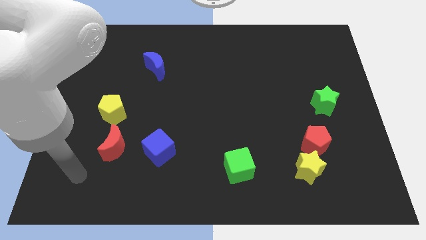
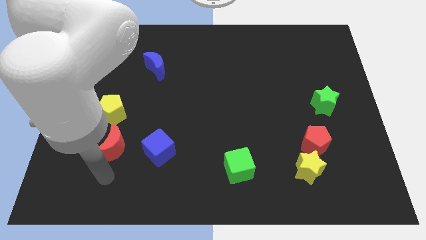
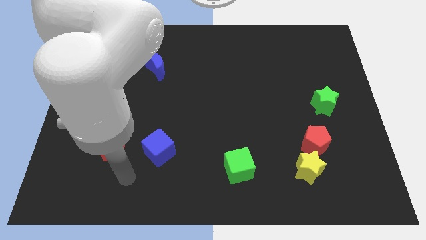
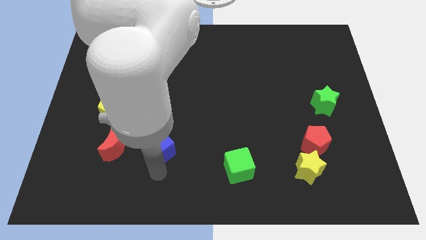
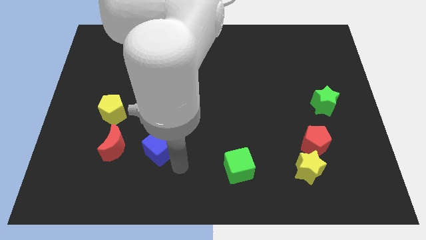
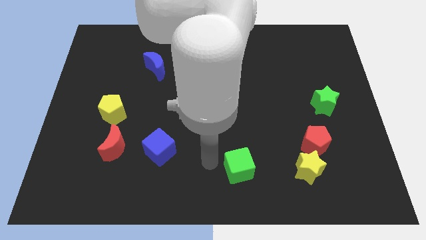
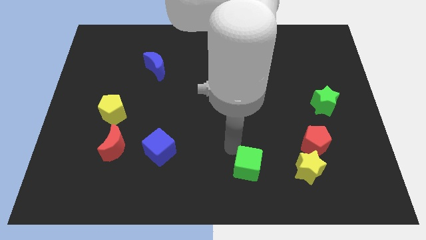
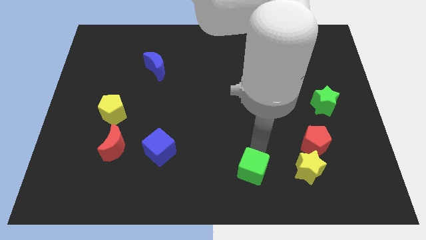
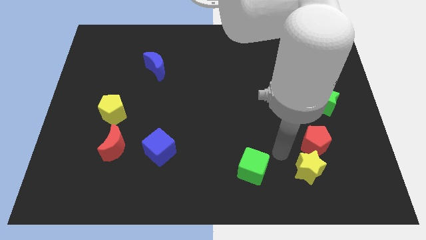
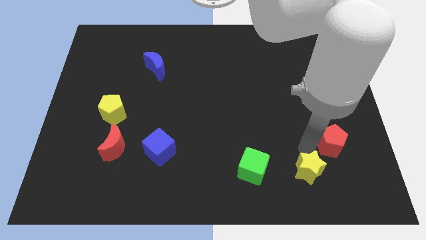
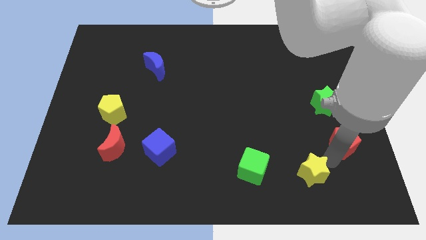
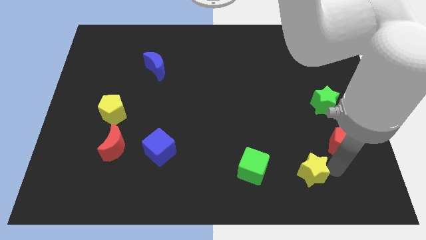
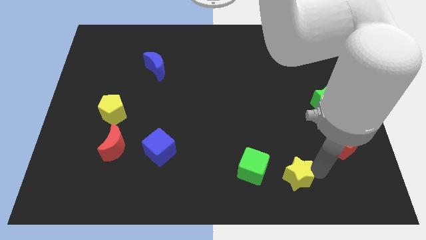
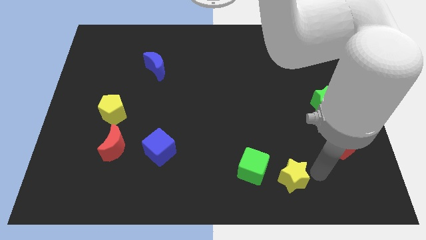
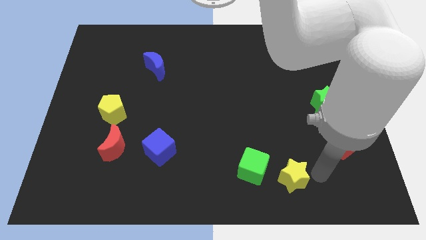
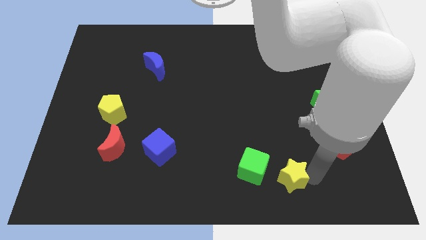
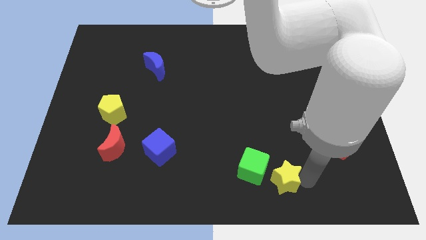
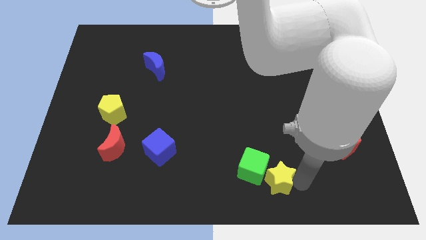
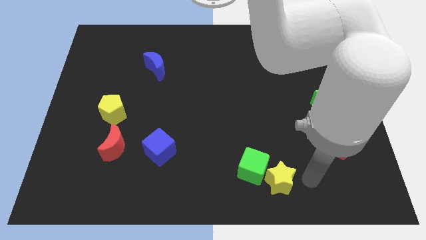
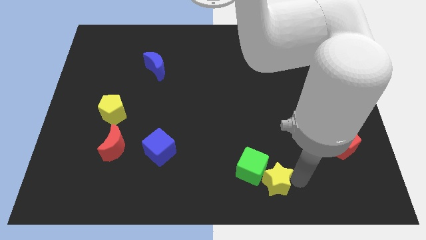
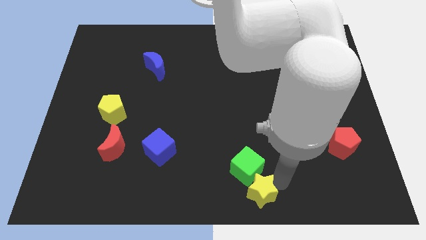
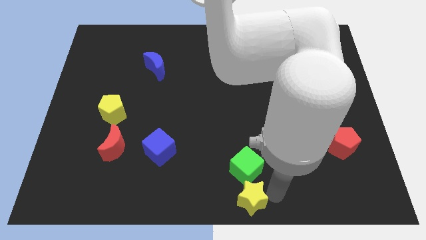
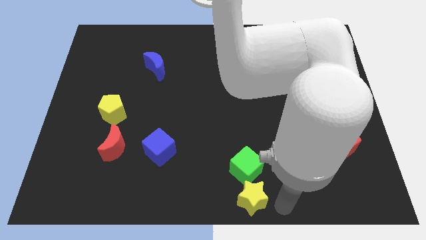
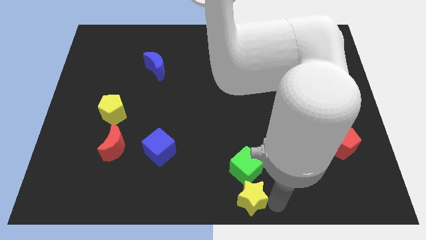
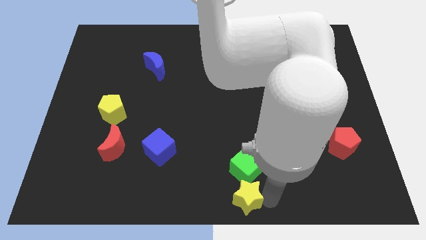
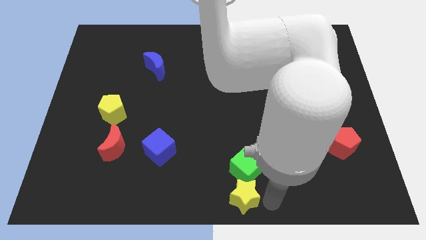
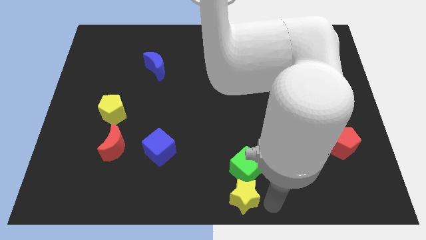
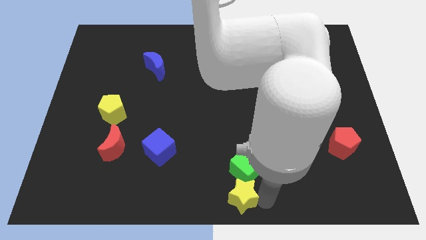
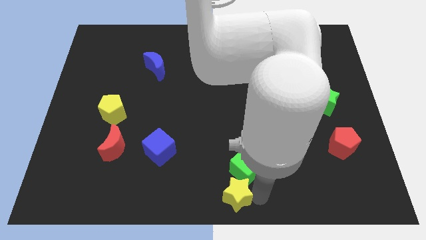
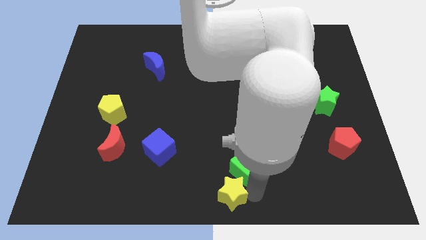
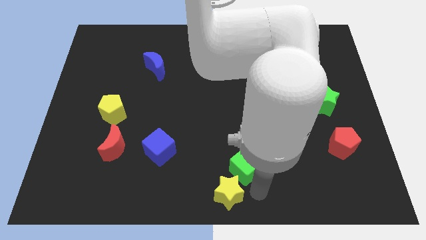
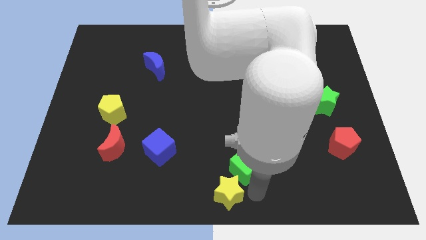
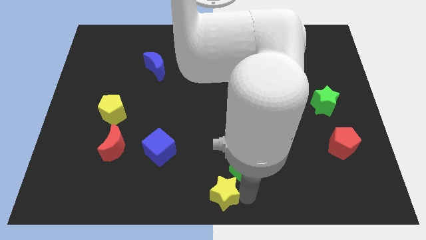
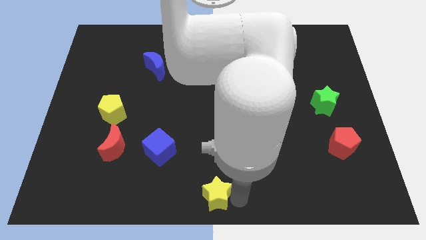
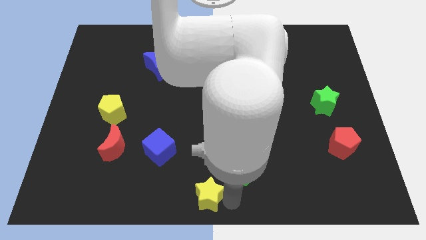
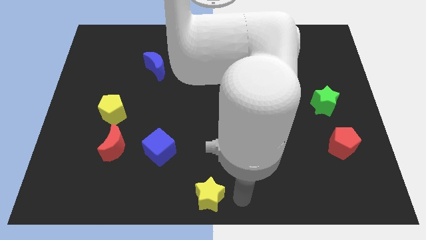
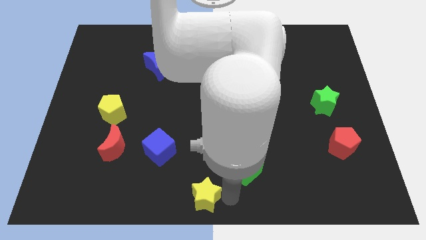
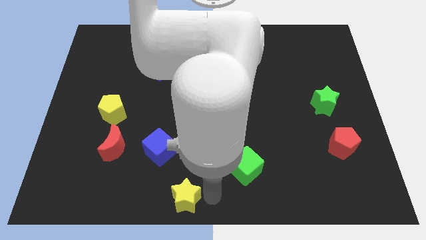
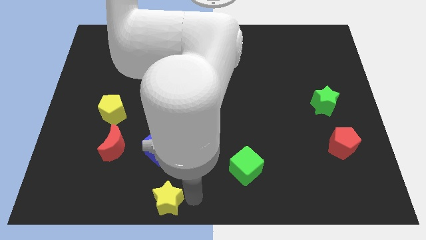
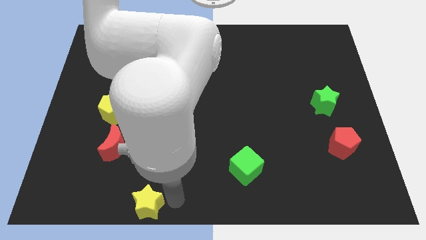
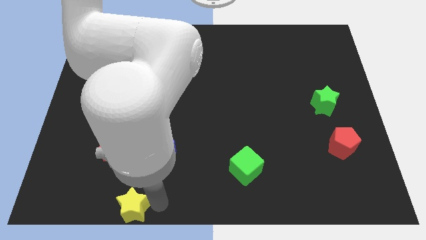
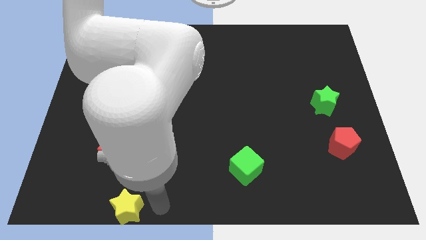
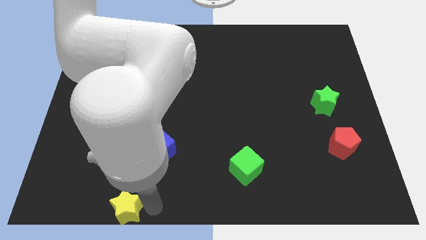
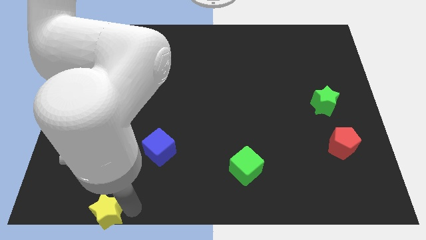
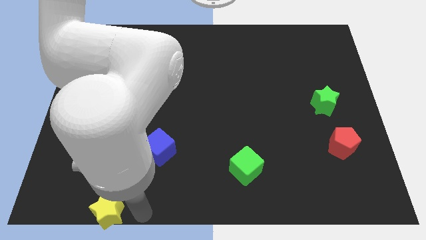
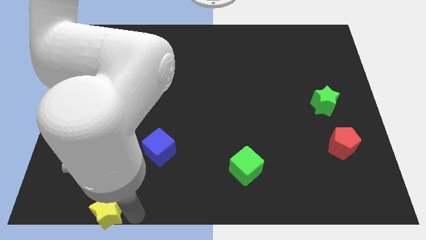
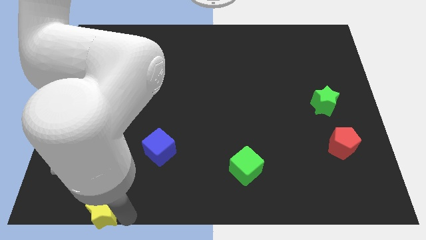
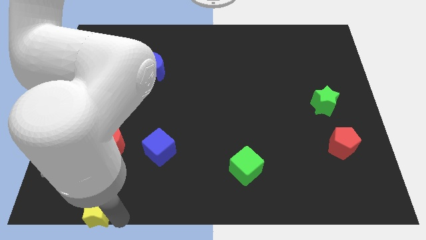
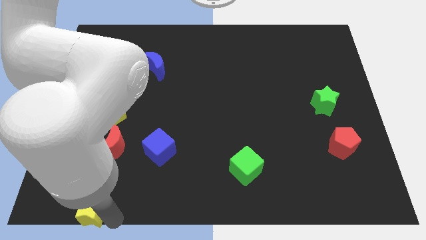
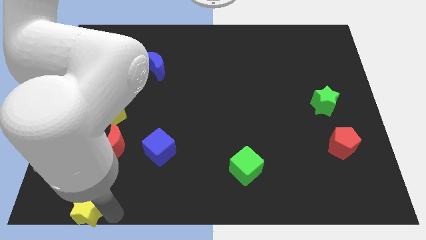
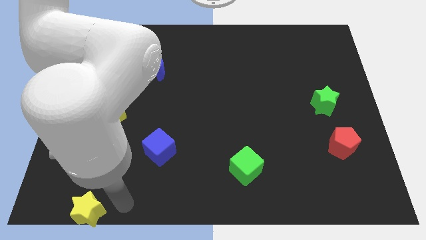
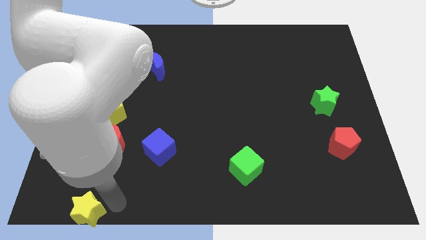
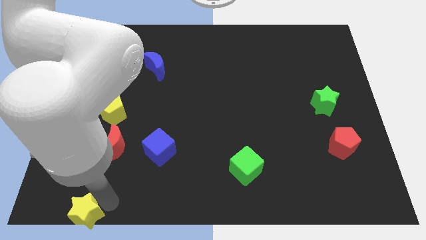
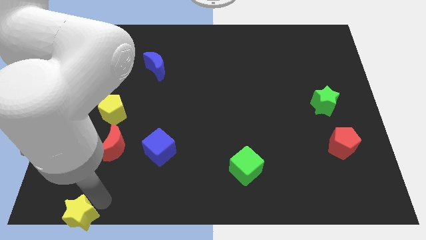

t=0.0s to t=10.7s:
move the yellow star to the bottom left

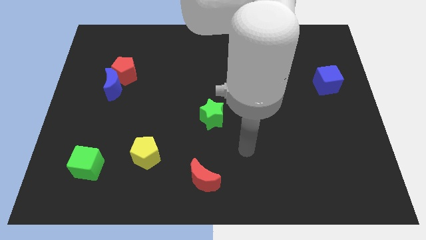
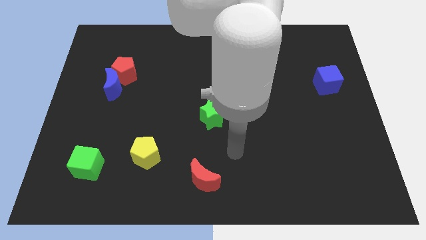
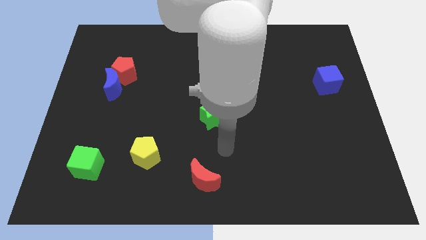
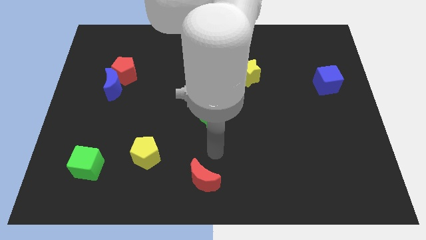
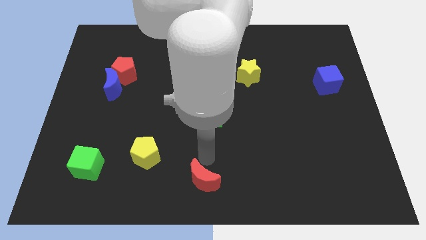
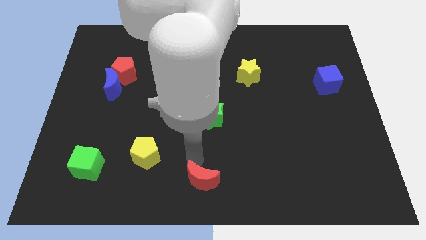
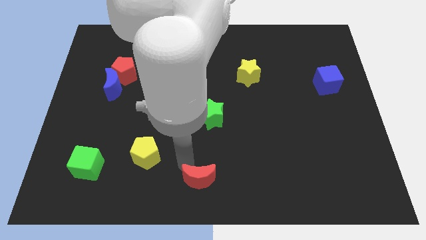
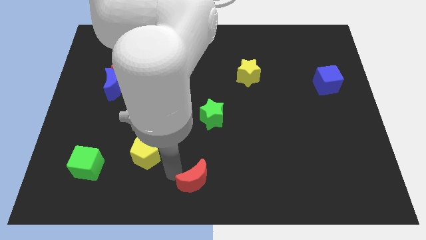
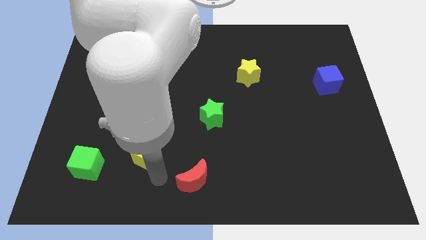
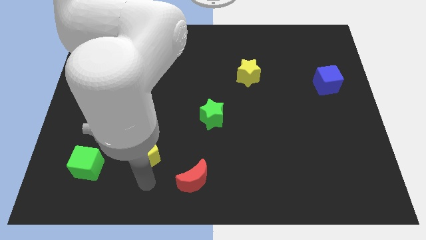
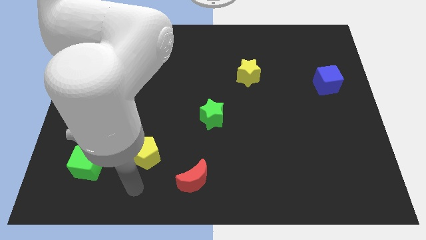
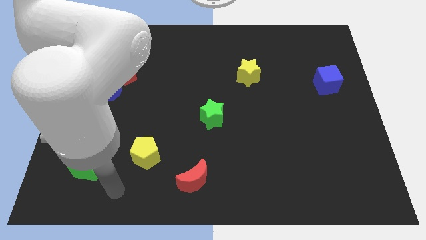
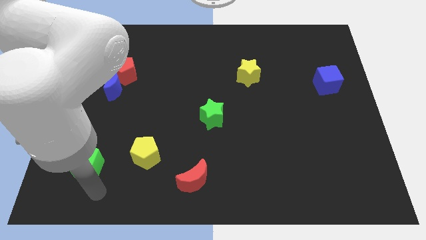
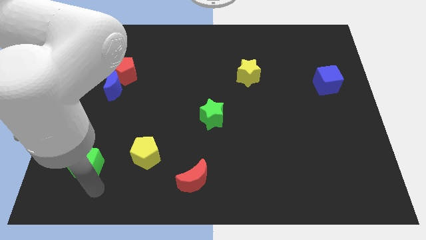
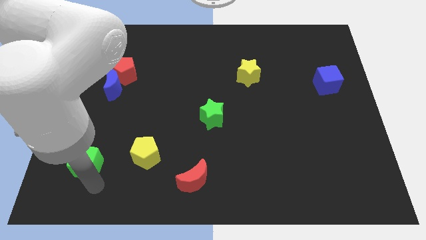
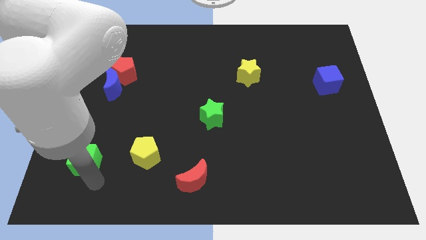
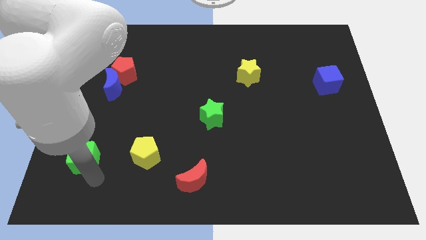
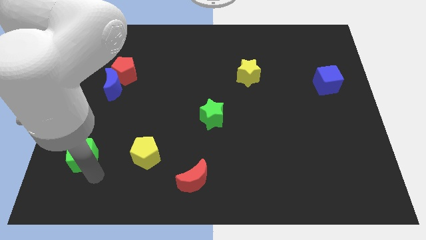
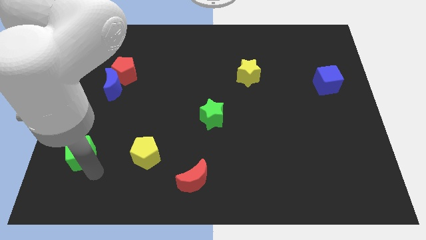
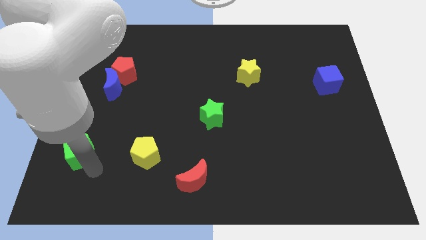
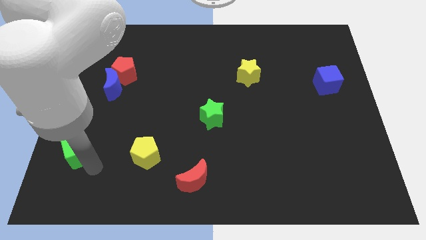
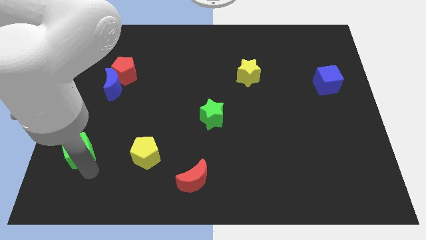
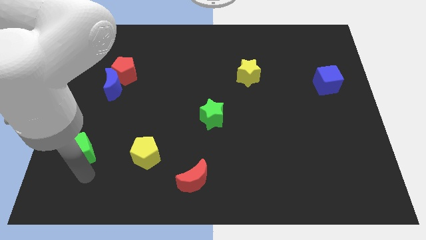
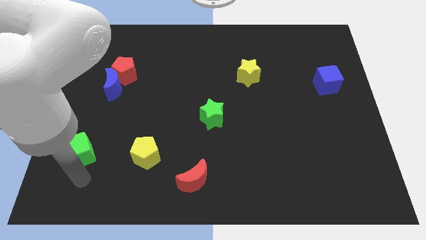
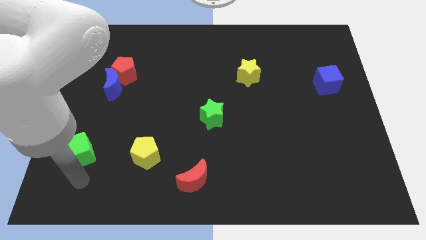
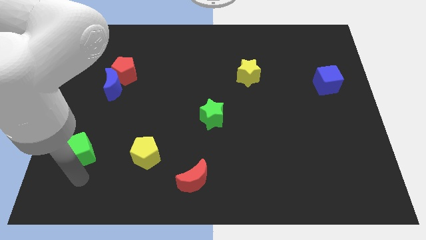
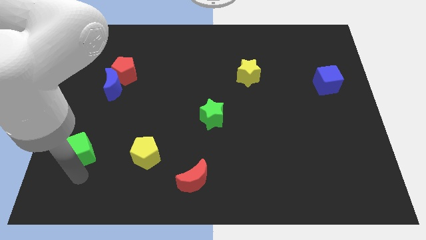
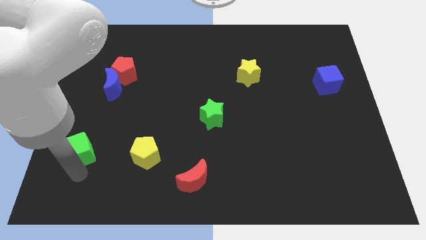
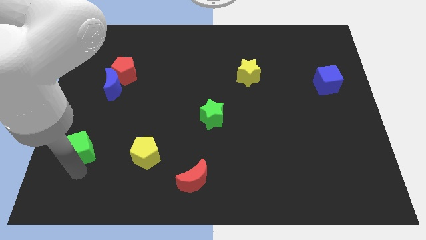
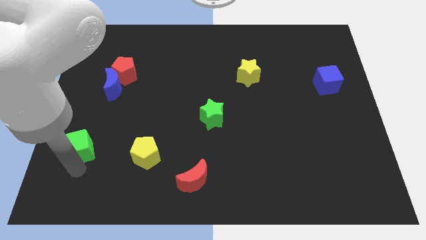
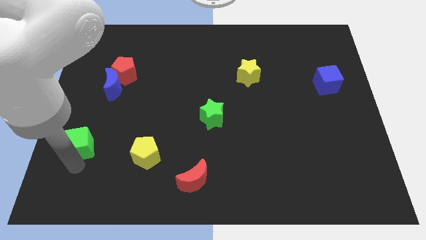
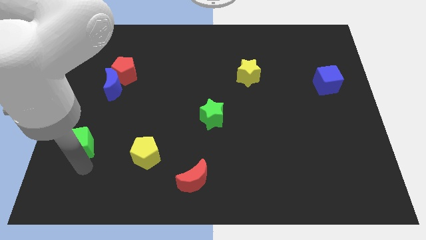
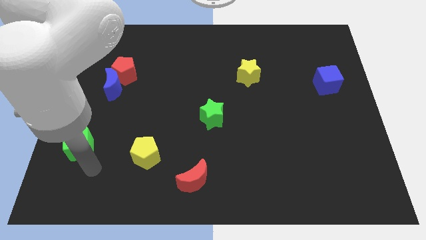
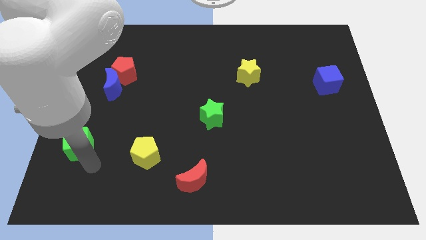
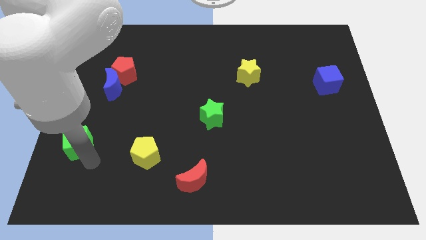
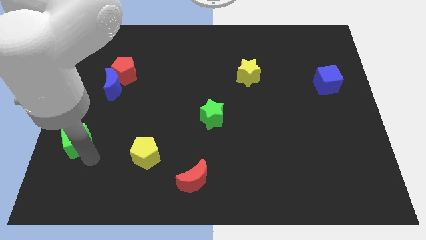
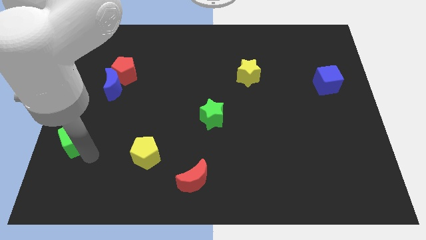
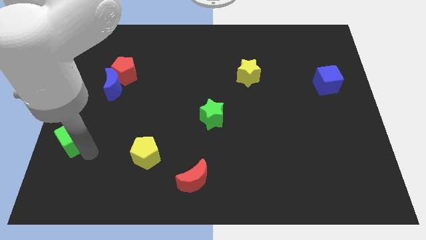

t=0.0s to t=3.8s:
slide the green cube to the center left
